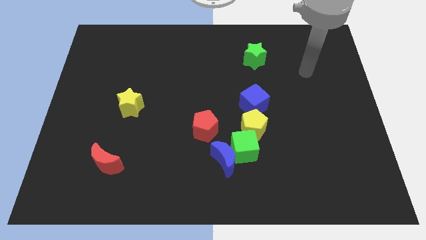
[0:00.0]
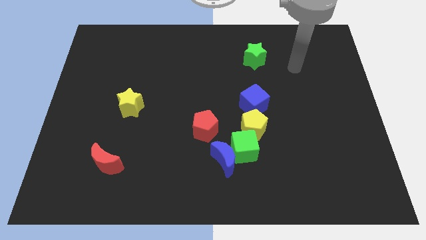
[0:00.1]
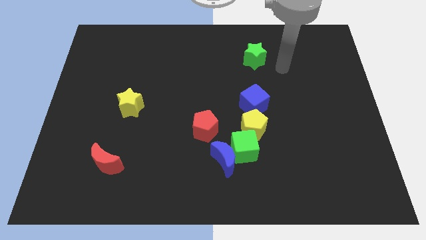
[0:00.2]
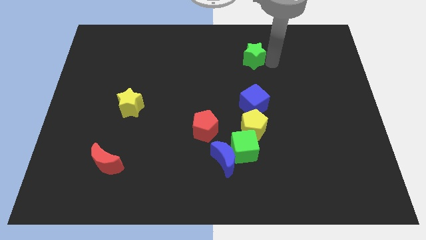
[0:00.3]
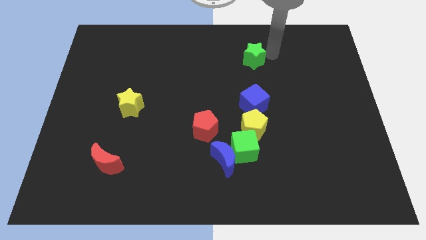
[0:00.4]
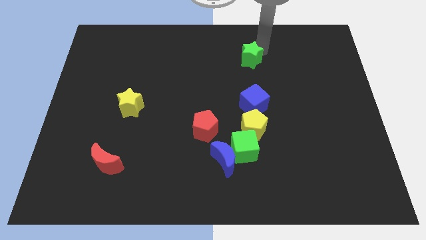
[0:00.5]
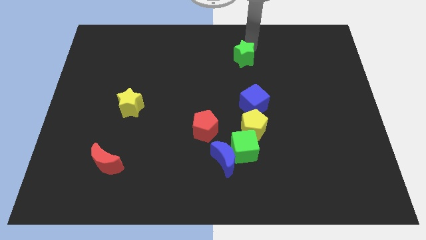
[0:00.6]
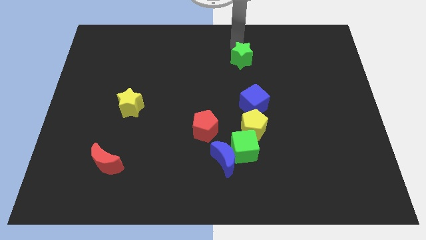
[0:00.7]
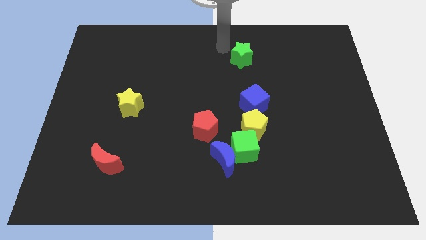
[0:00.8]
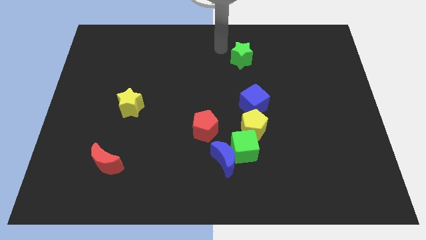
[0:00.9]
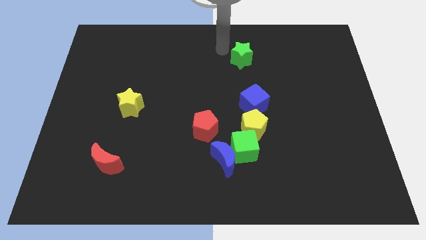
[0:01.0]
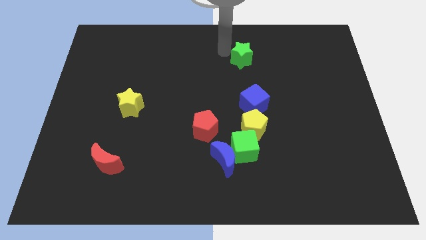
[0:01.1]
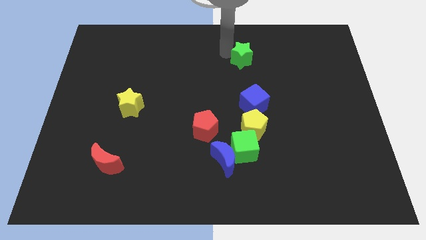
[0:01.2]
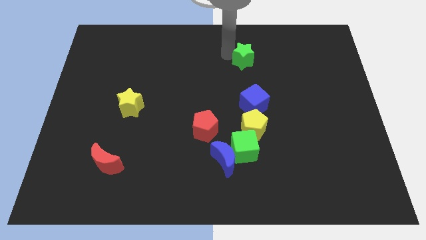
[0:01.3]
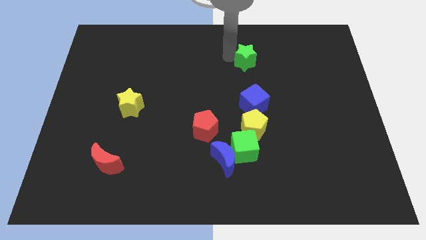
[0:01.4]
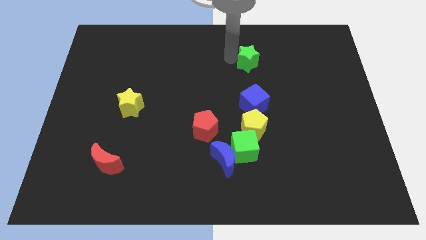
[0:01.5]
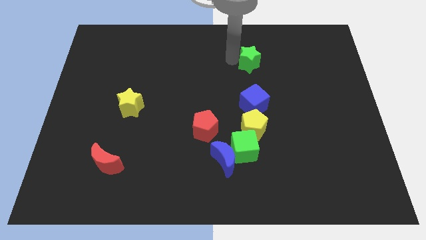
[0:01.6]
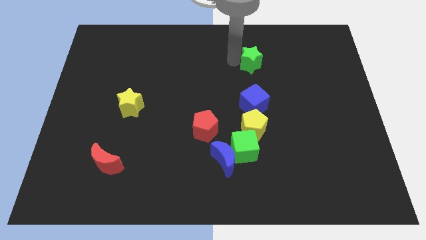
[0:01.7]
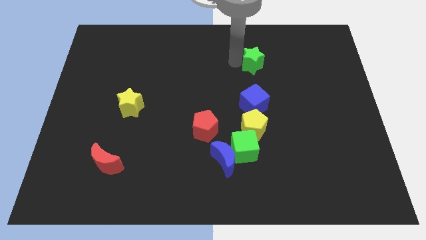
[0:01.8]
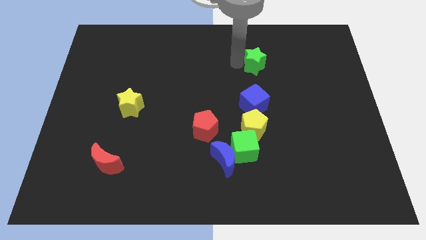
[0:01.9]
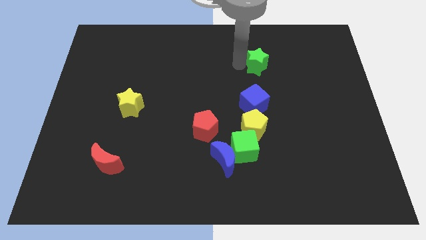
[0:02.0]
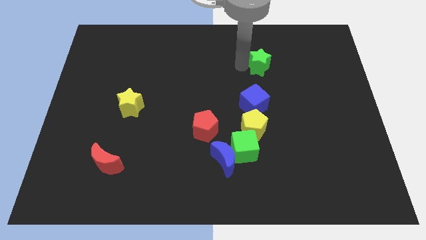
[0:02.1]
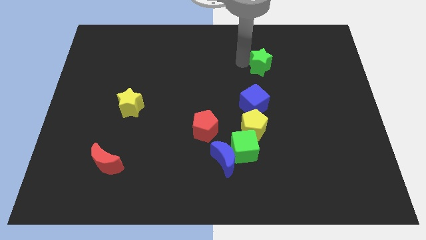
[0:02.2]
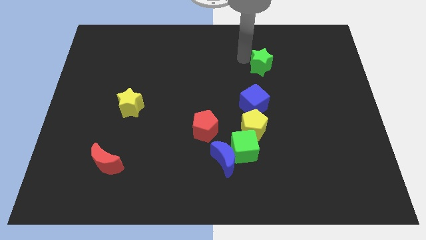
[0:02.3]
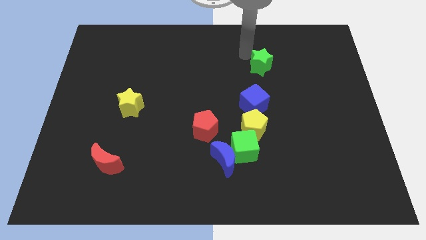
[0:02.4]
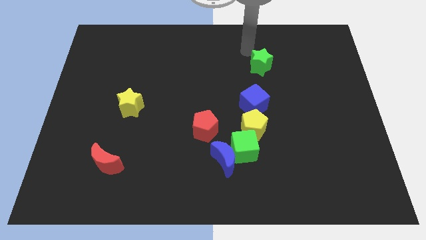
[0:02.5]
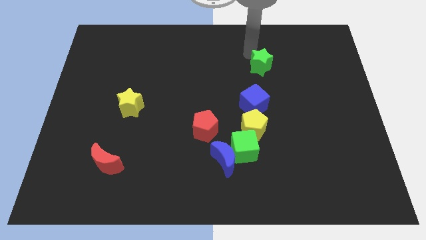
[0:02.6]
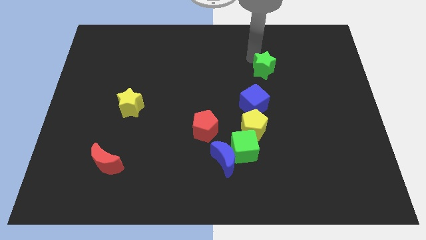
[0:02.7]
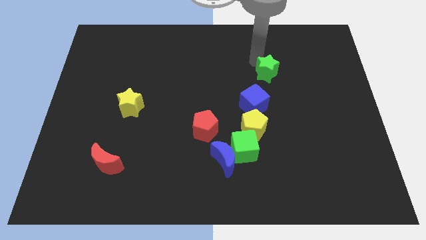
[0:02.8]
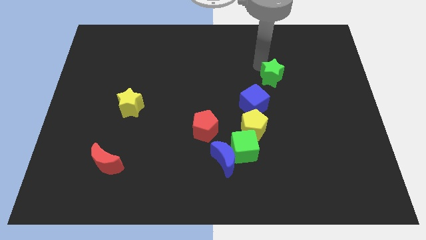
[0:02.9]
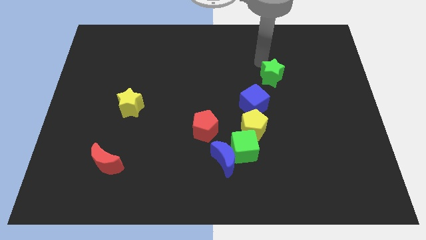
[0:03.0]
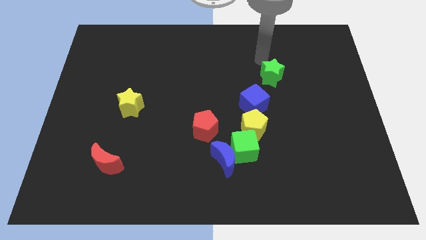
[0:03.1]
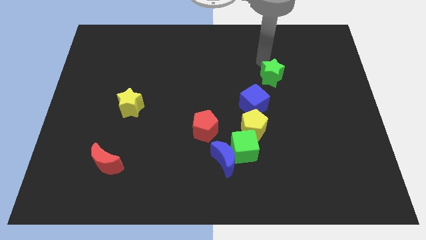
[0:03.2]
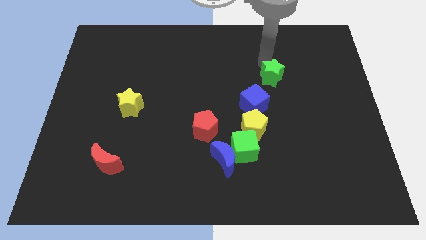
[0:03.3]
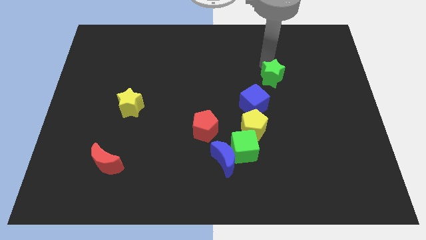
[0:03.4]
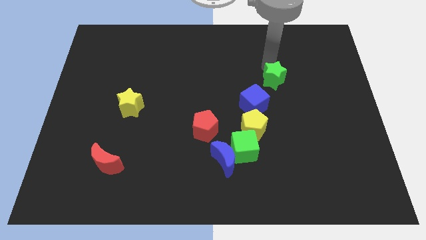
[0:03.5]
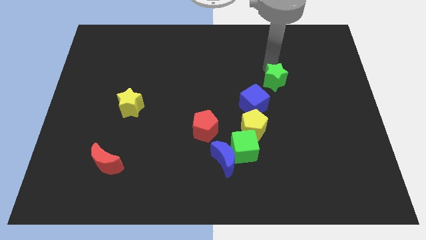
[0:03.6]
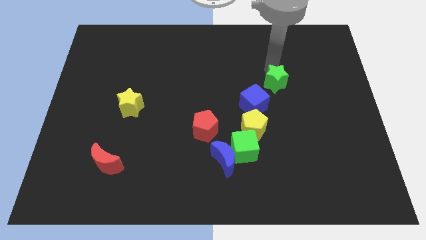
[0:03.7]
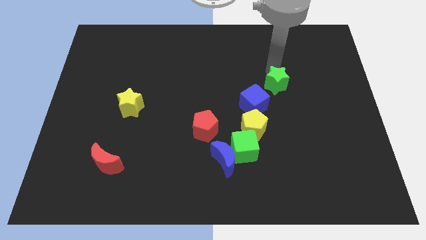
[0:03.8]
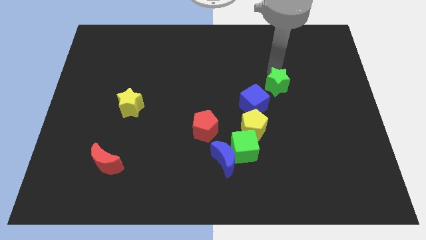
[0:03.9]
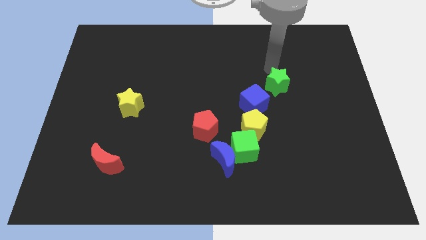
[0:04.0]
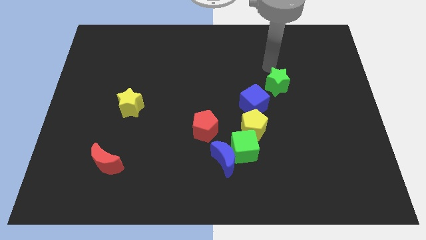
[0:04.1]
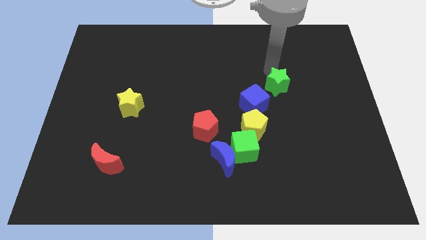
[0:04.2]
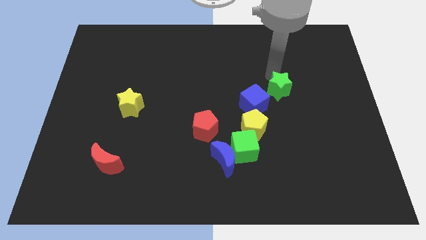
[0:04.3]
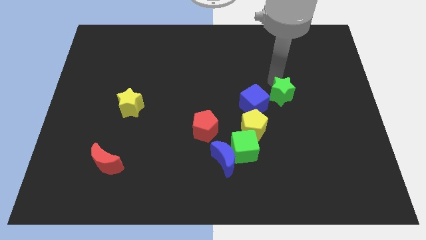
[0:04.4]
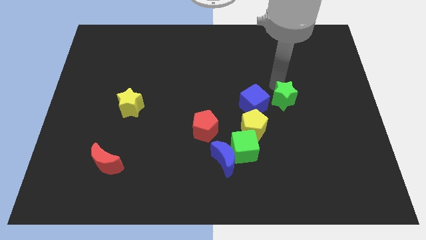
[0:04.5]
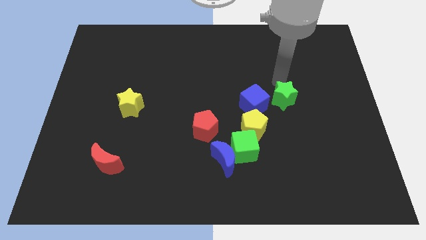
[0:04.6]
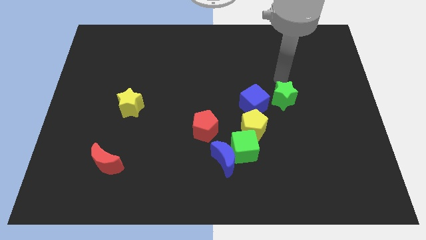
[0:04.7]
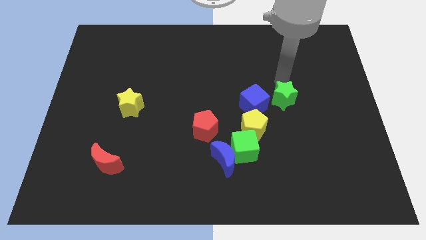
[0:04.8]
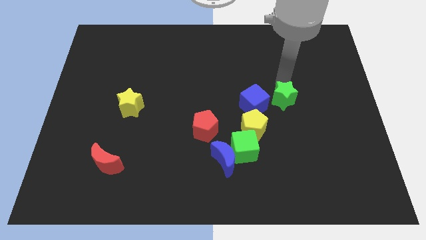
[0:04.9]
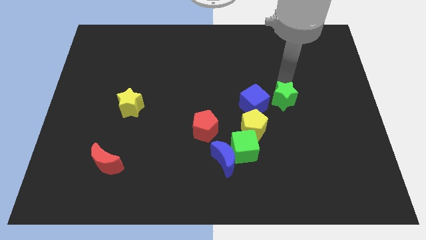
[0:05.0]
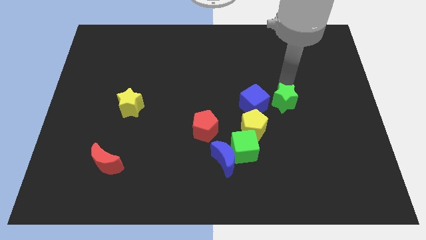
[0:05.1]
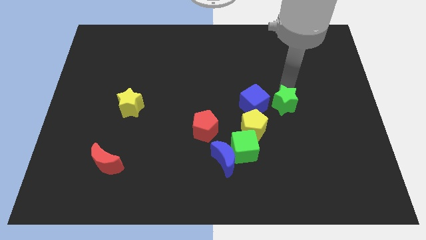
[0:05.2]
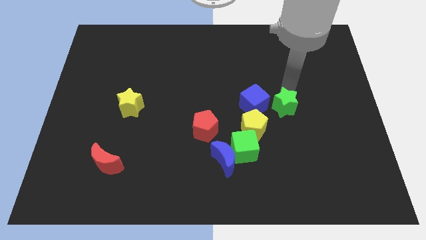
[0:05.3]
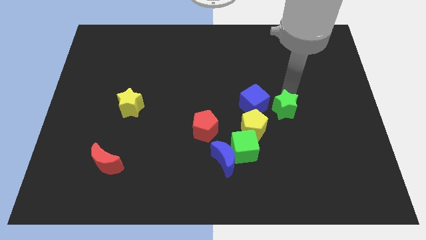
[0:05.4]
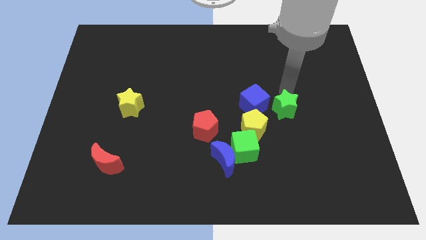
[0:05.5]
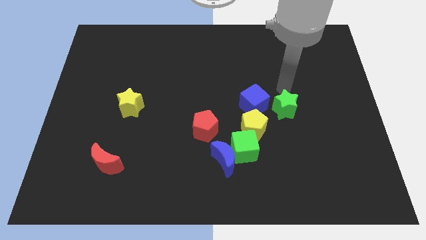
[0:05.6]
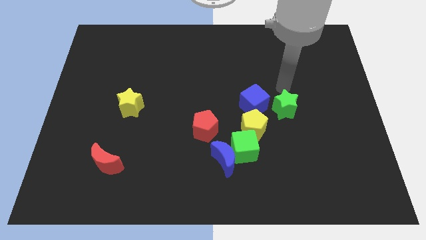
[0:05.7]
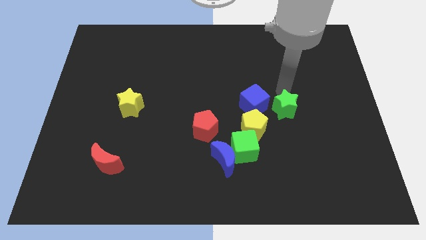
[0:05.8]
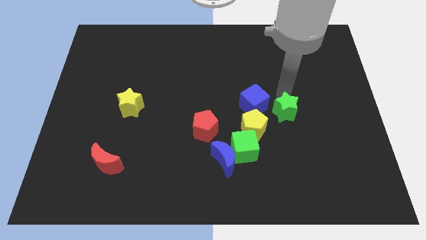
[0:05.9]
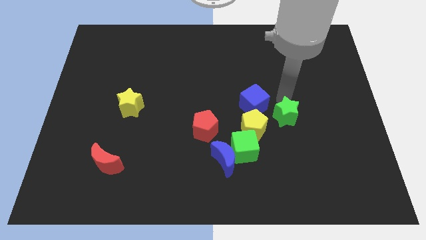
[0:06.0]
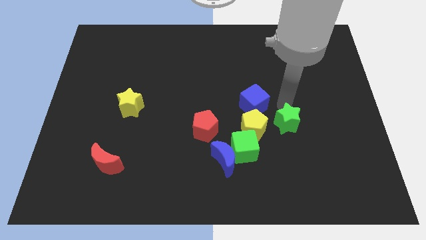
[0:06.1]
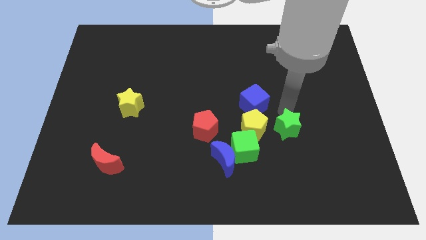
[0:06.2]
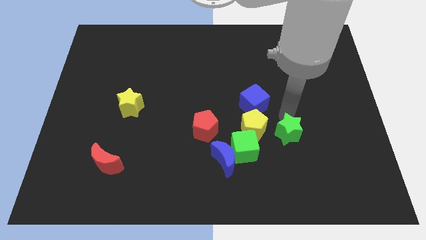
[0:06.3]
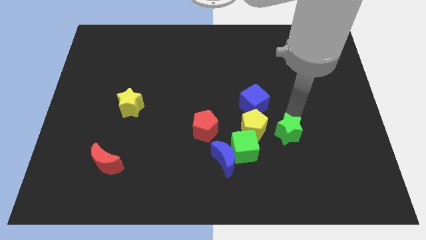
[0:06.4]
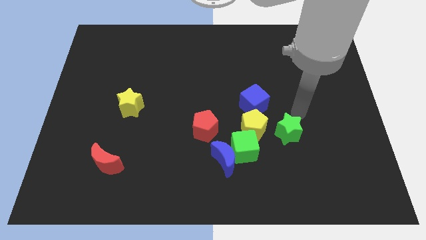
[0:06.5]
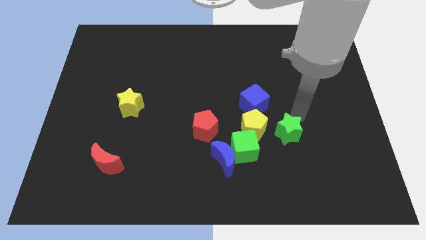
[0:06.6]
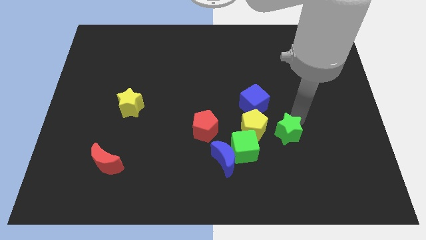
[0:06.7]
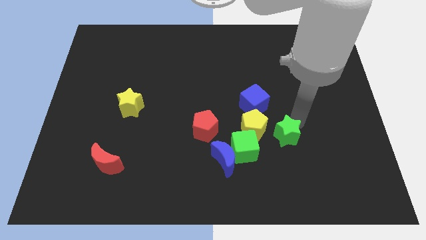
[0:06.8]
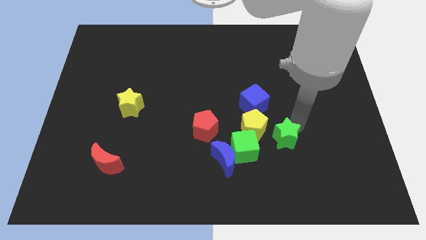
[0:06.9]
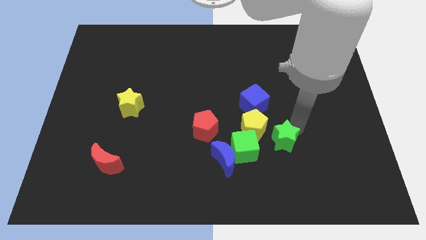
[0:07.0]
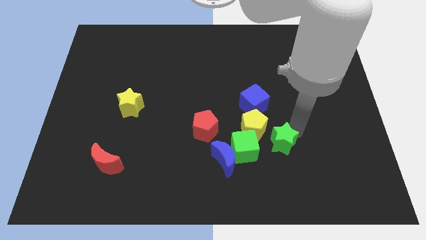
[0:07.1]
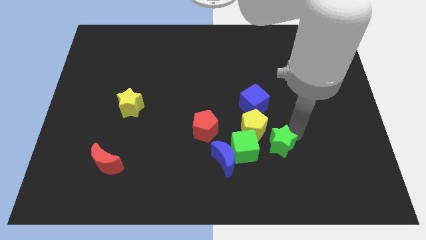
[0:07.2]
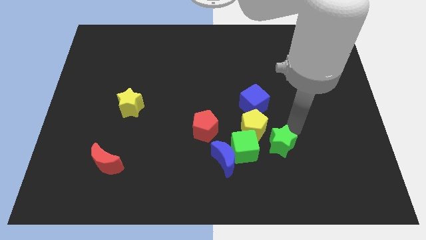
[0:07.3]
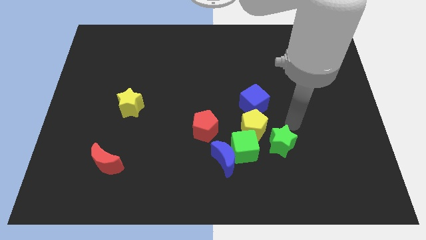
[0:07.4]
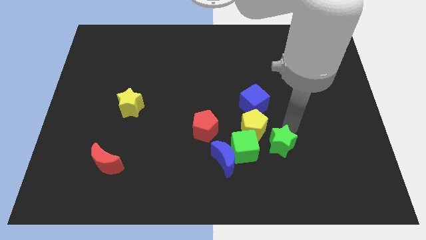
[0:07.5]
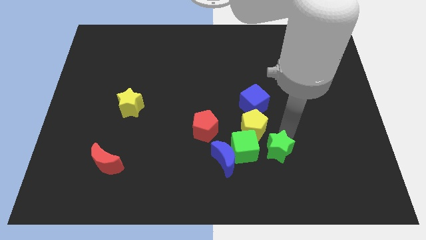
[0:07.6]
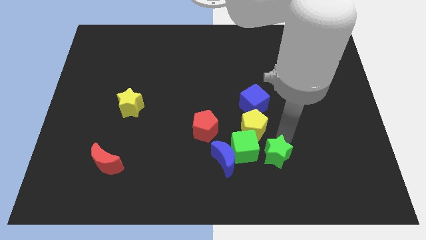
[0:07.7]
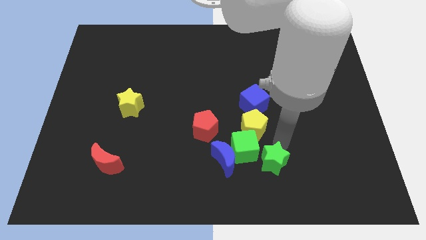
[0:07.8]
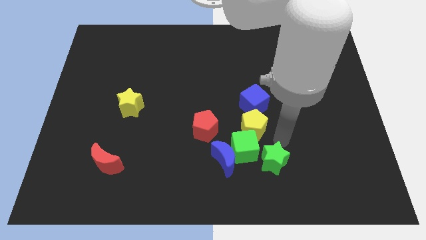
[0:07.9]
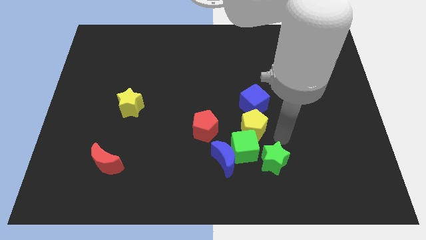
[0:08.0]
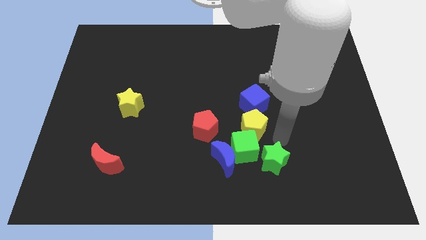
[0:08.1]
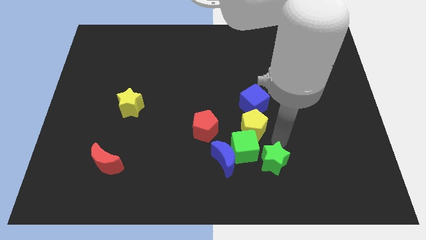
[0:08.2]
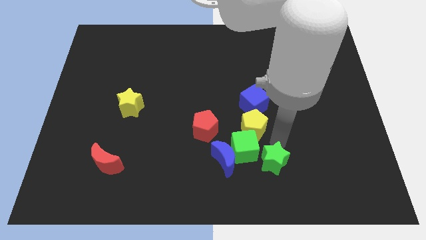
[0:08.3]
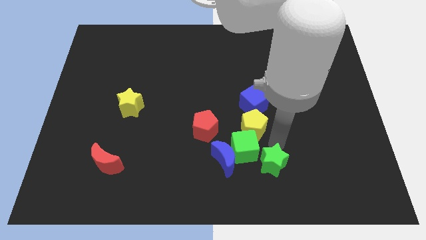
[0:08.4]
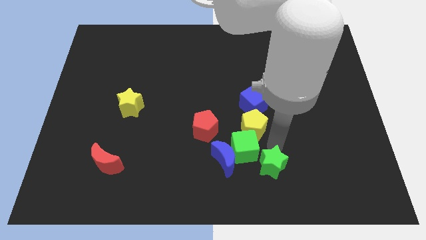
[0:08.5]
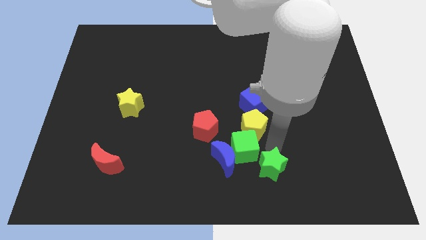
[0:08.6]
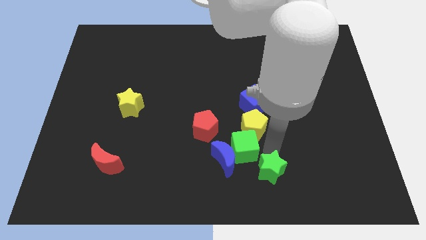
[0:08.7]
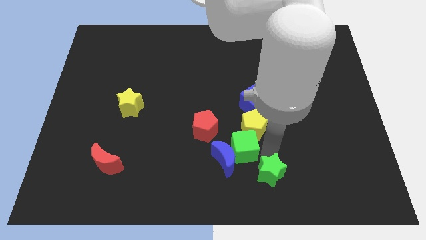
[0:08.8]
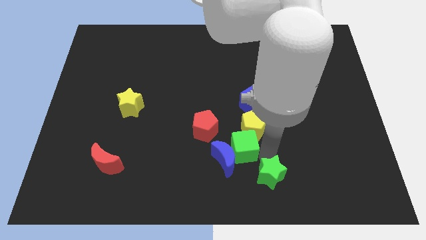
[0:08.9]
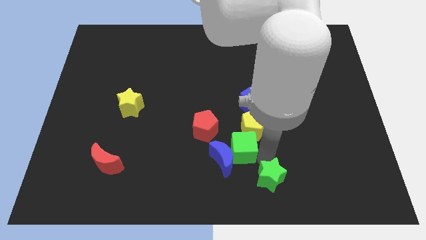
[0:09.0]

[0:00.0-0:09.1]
move the green star to the bottom side
